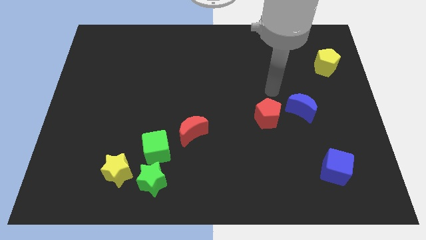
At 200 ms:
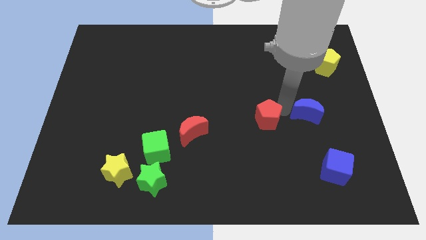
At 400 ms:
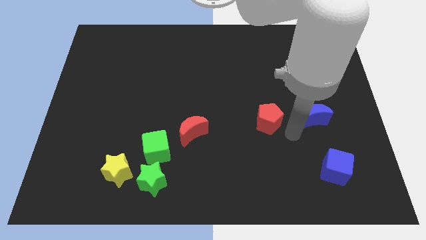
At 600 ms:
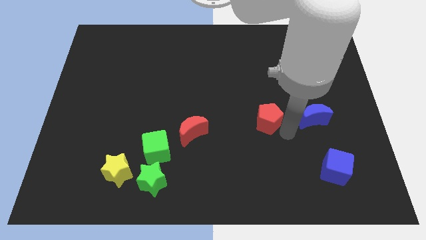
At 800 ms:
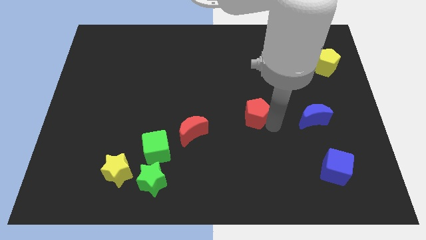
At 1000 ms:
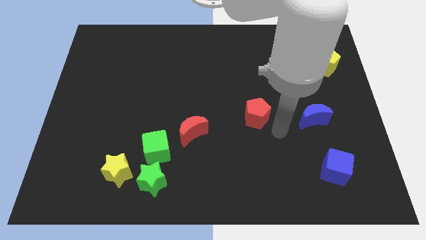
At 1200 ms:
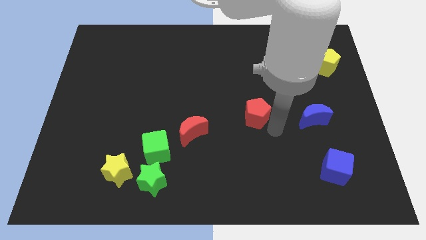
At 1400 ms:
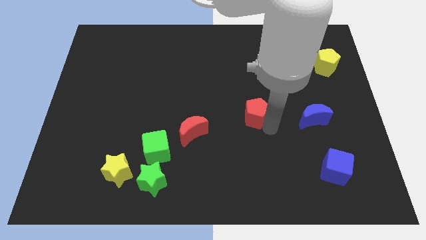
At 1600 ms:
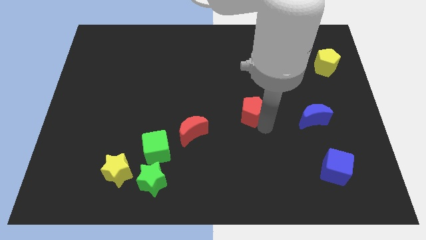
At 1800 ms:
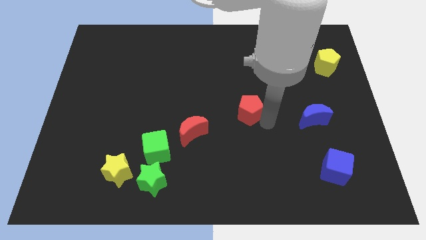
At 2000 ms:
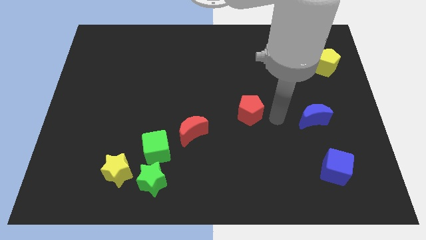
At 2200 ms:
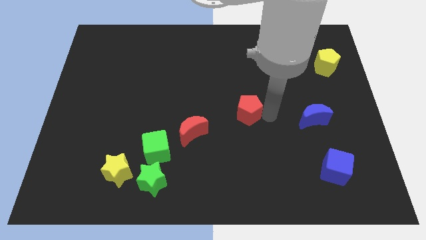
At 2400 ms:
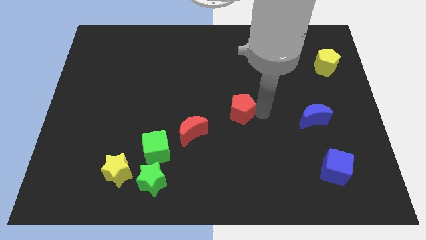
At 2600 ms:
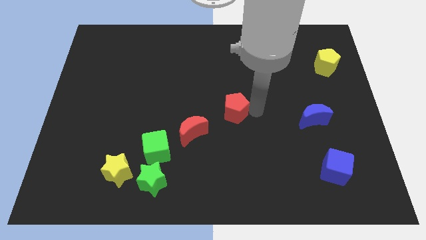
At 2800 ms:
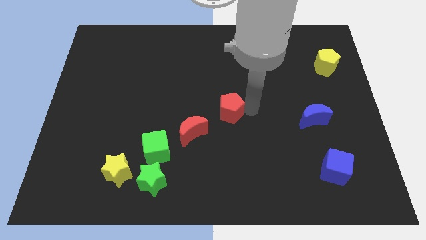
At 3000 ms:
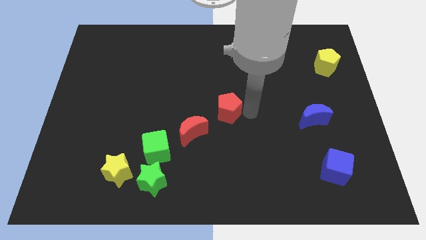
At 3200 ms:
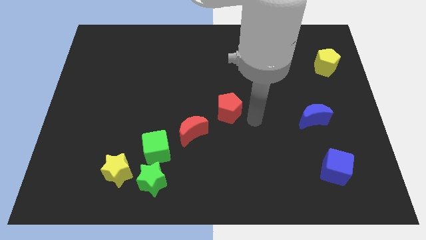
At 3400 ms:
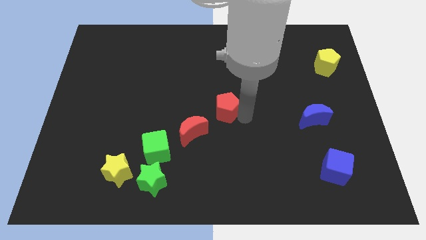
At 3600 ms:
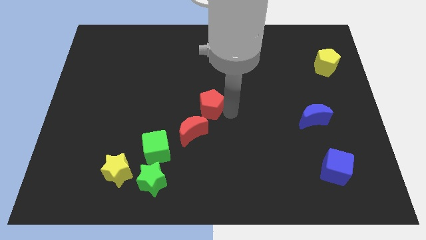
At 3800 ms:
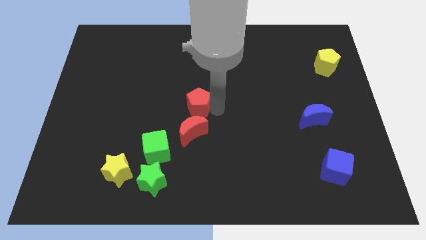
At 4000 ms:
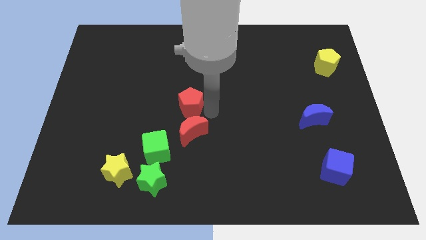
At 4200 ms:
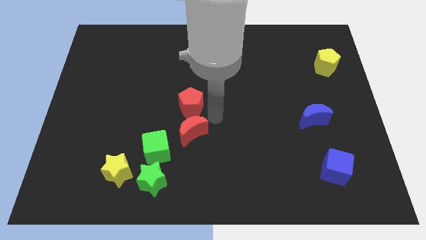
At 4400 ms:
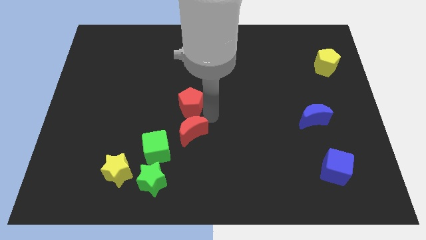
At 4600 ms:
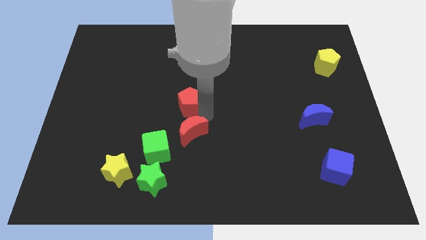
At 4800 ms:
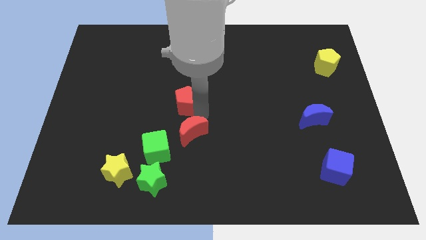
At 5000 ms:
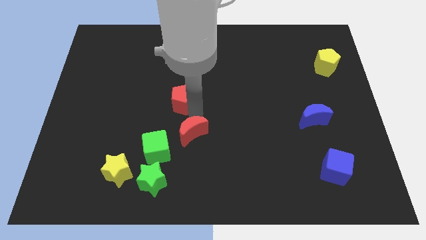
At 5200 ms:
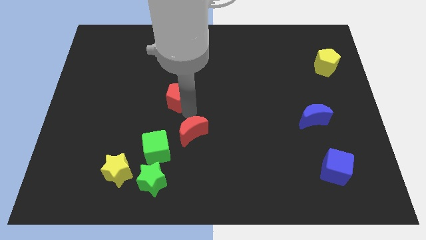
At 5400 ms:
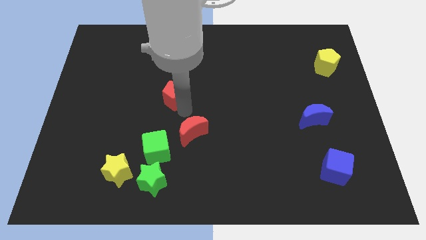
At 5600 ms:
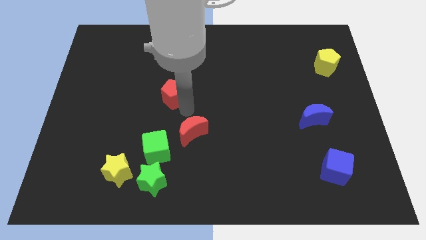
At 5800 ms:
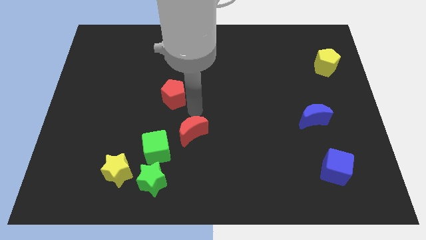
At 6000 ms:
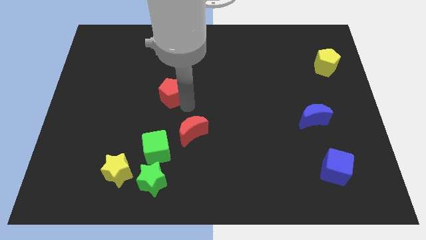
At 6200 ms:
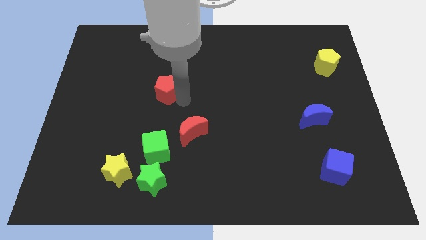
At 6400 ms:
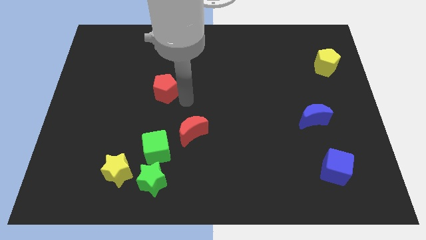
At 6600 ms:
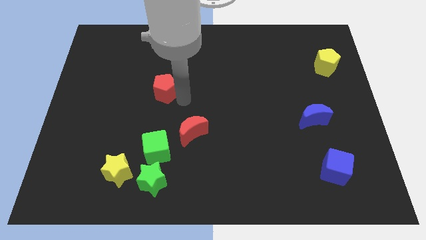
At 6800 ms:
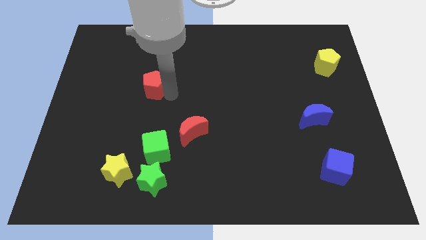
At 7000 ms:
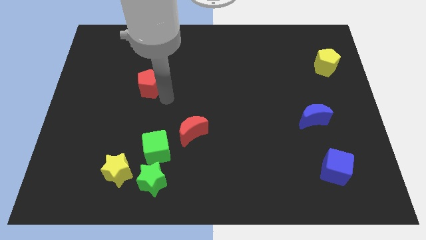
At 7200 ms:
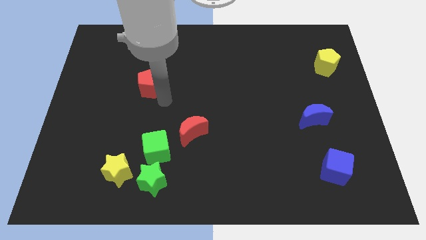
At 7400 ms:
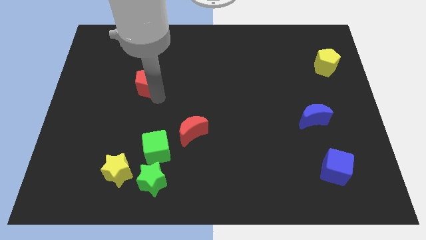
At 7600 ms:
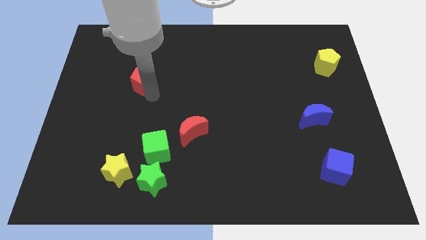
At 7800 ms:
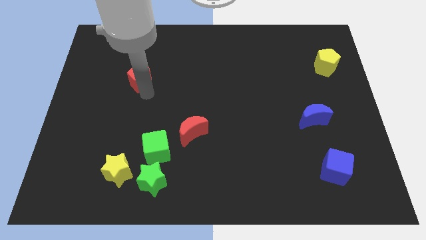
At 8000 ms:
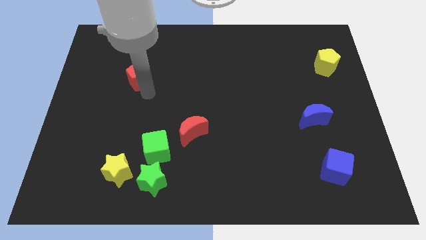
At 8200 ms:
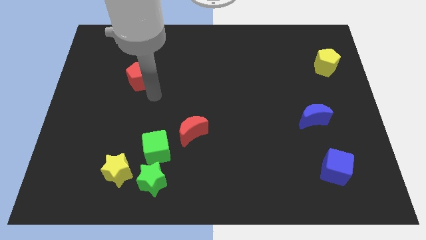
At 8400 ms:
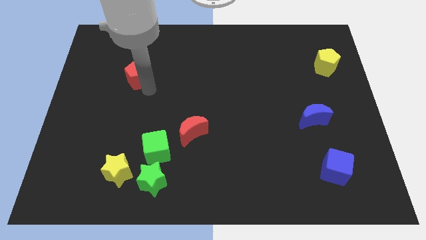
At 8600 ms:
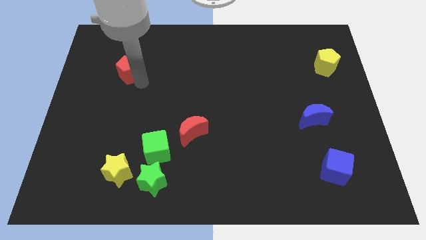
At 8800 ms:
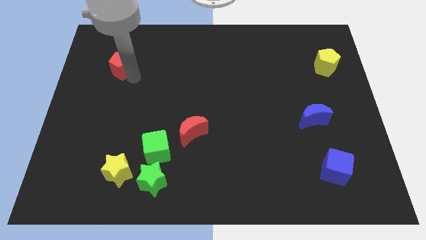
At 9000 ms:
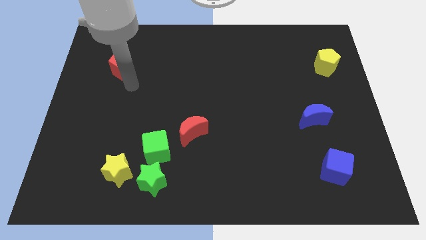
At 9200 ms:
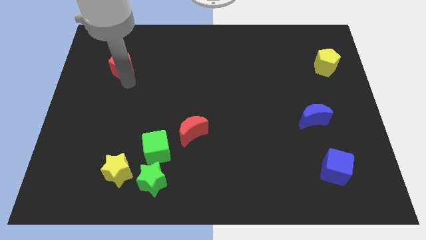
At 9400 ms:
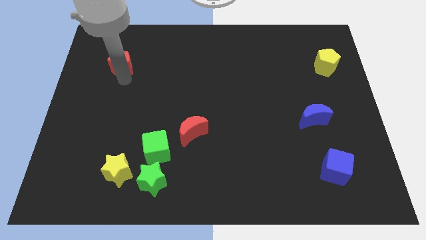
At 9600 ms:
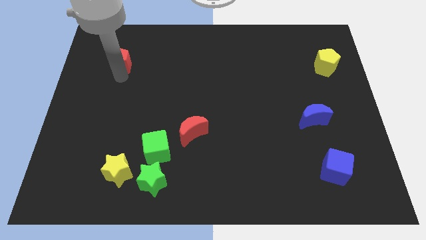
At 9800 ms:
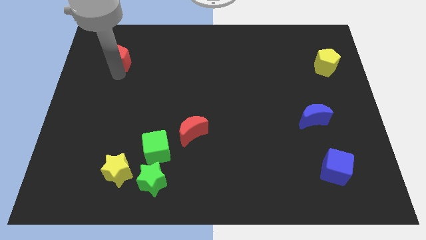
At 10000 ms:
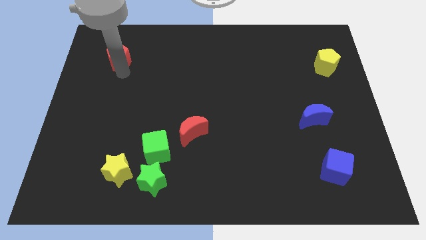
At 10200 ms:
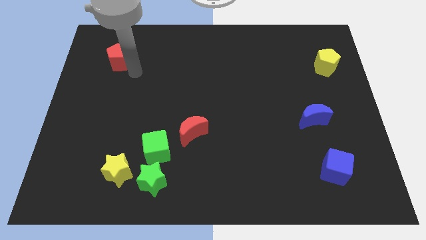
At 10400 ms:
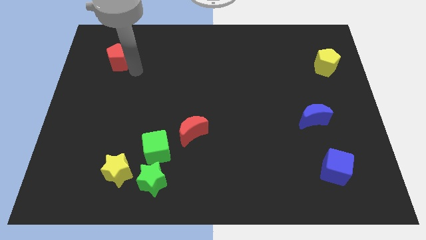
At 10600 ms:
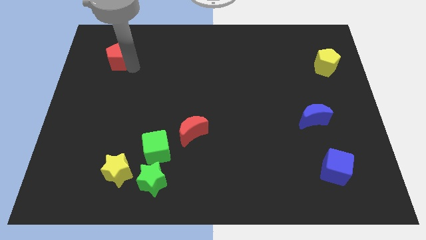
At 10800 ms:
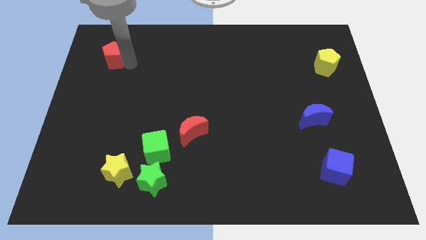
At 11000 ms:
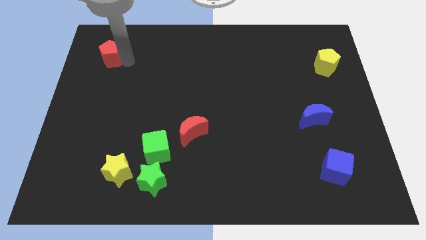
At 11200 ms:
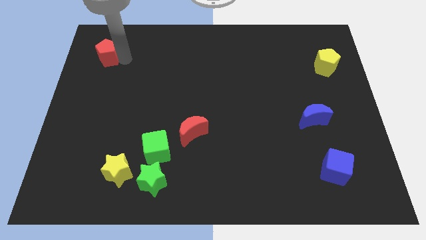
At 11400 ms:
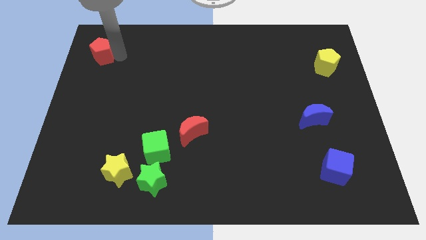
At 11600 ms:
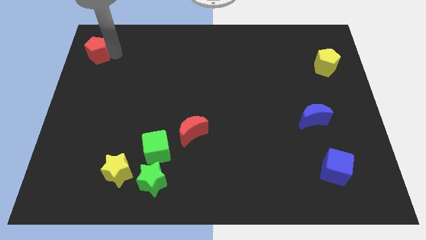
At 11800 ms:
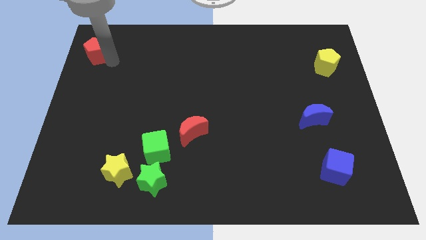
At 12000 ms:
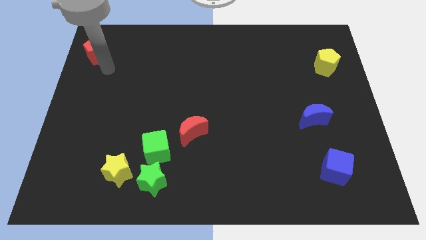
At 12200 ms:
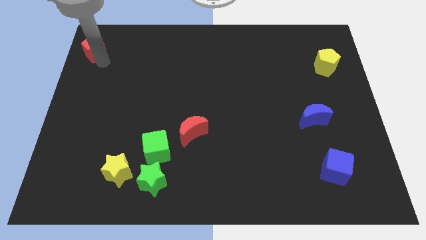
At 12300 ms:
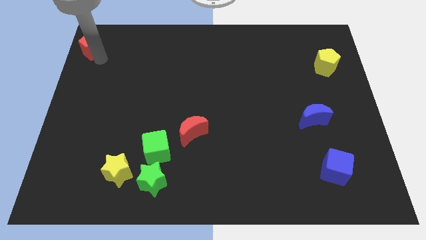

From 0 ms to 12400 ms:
push the red pentagon to the top left

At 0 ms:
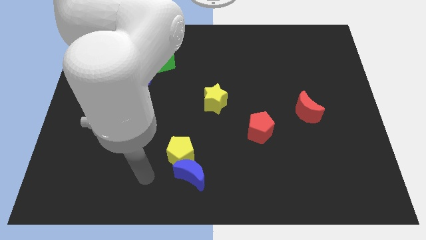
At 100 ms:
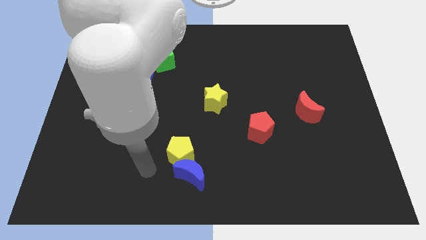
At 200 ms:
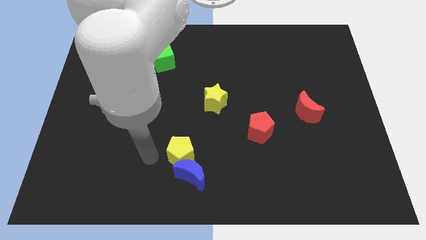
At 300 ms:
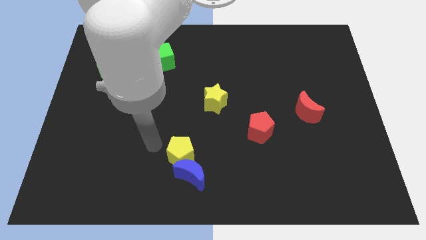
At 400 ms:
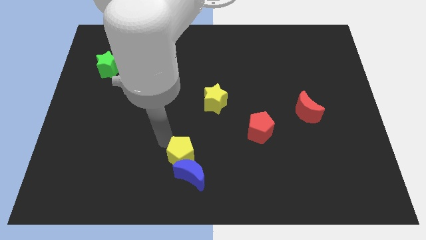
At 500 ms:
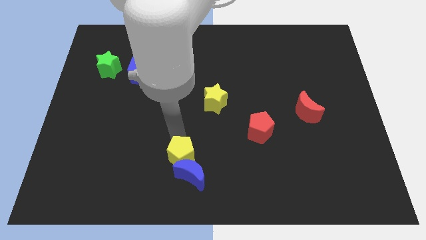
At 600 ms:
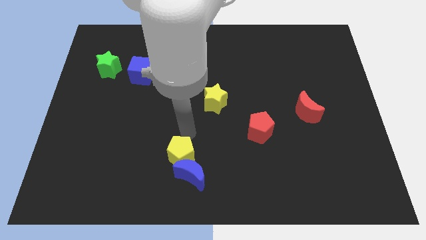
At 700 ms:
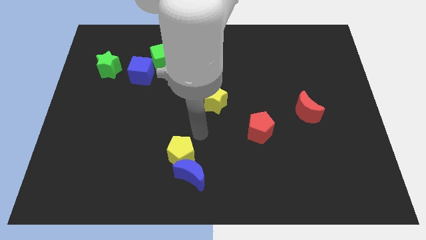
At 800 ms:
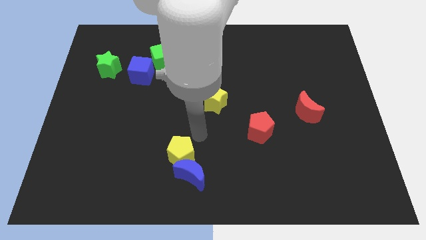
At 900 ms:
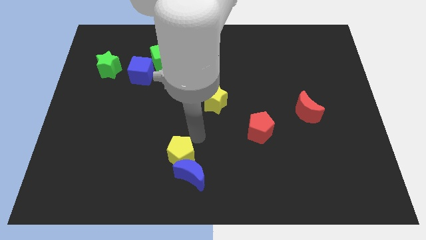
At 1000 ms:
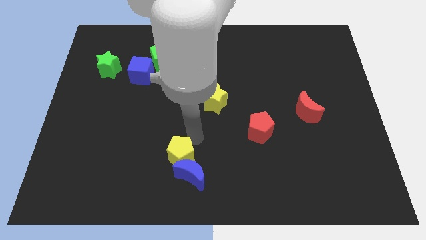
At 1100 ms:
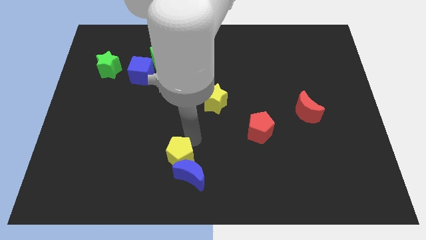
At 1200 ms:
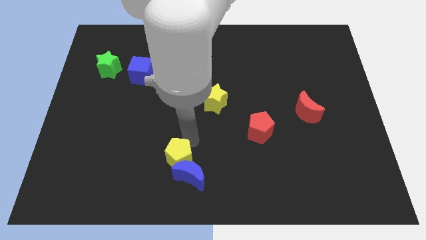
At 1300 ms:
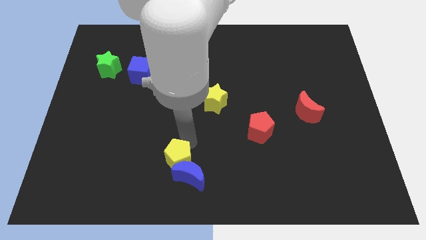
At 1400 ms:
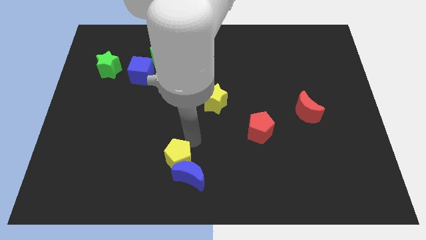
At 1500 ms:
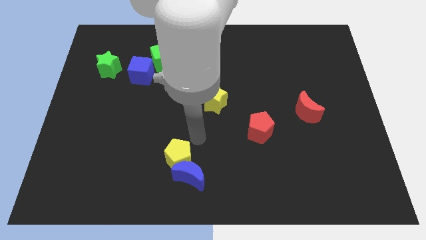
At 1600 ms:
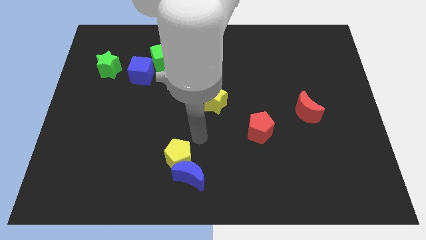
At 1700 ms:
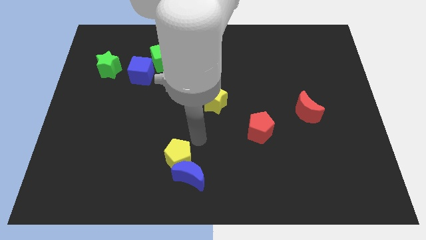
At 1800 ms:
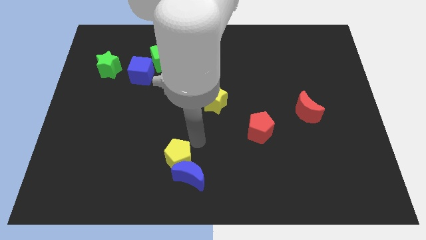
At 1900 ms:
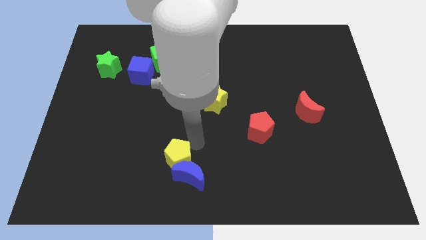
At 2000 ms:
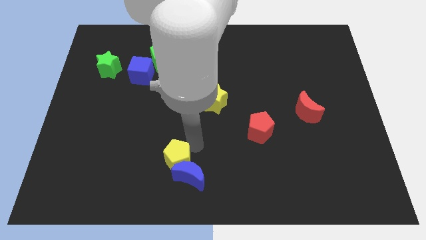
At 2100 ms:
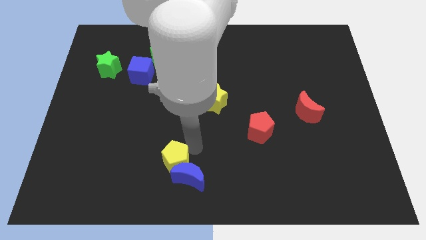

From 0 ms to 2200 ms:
slide the yellow pentagon to the bottom side
